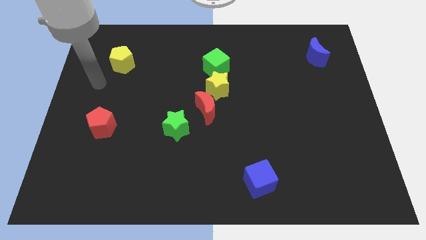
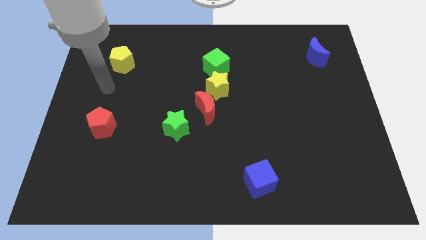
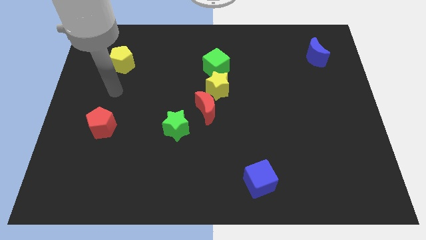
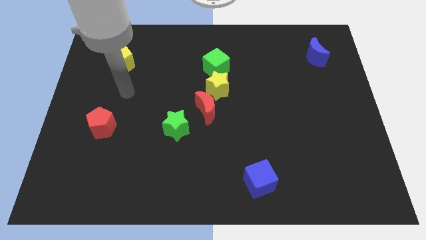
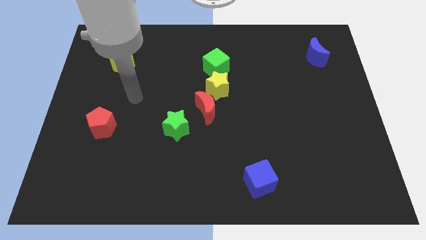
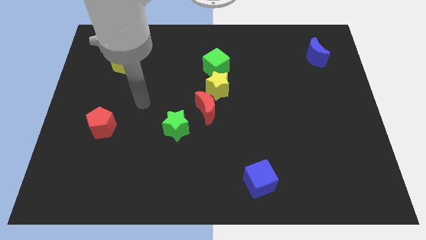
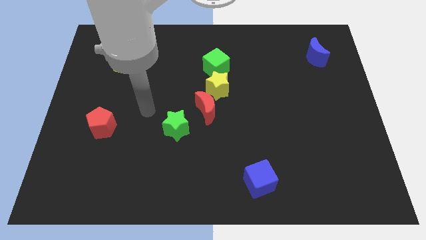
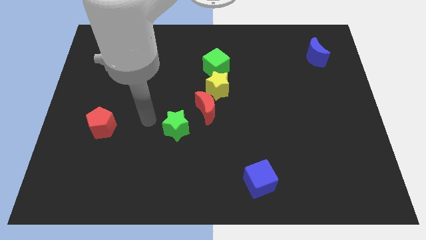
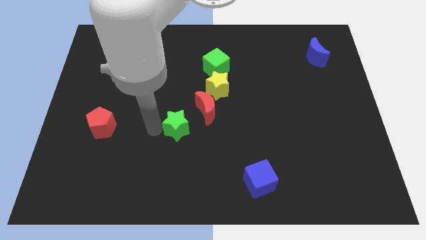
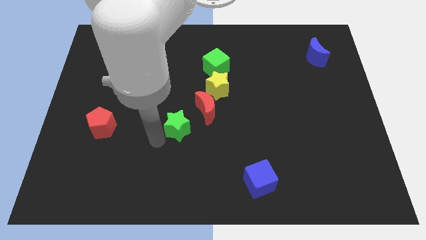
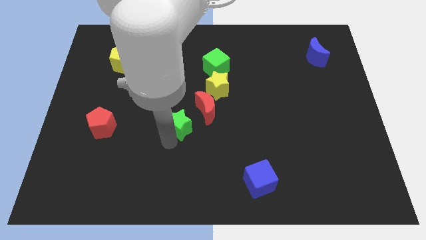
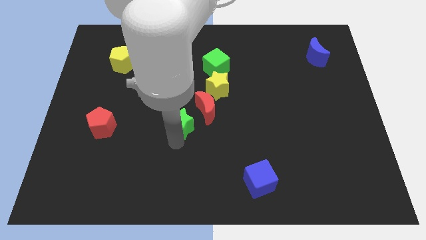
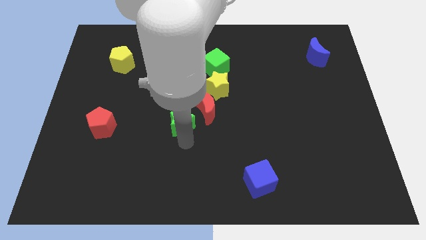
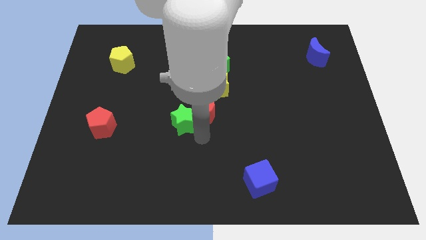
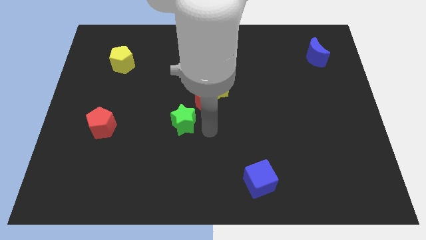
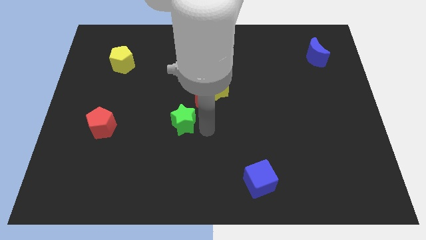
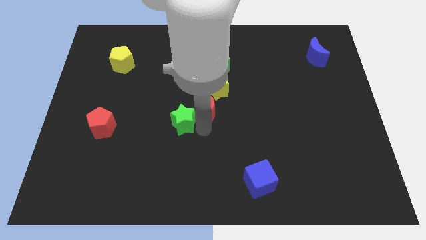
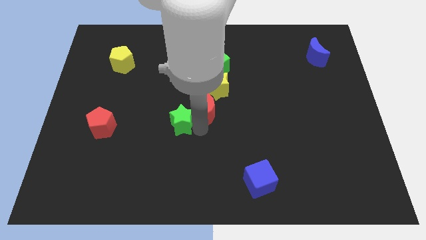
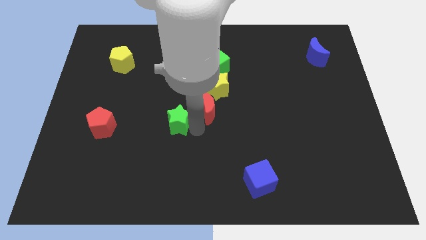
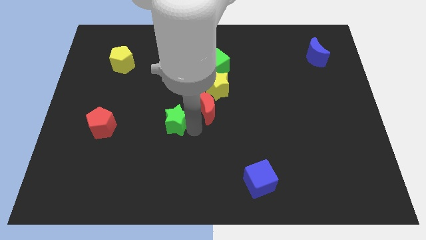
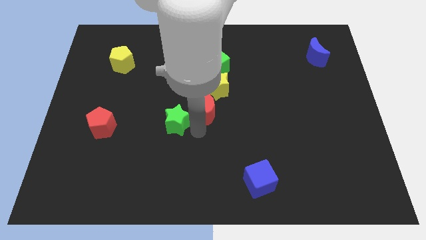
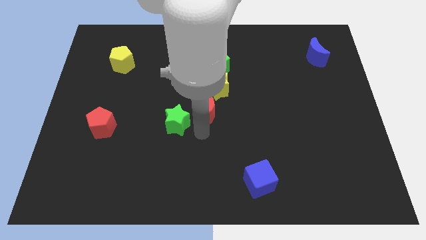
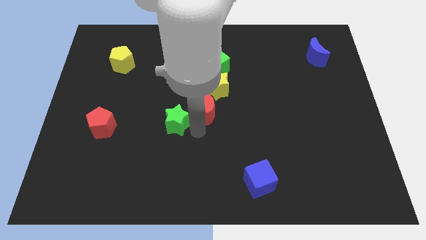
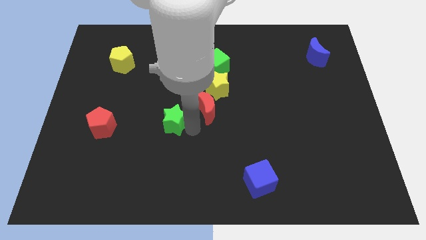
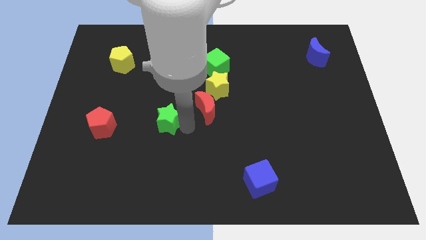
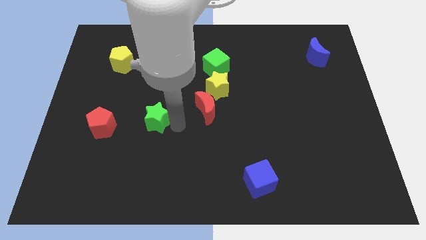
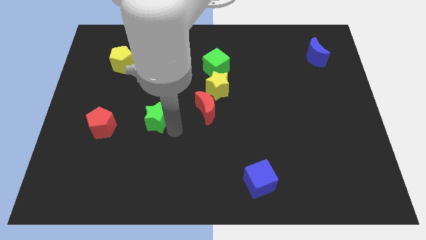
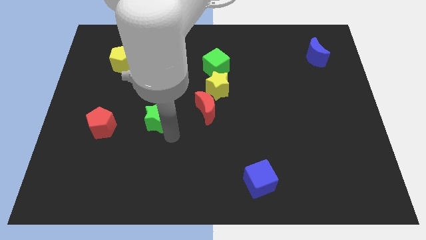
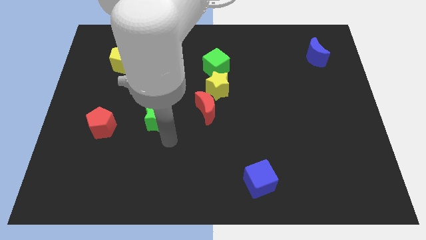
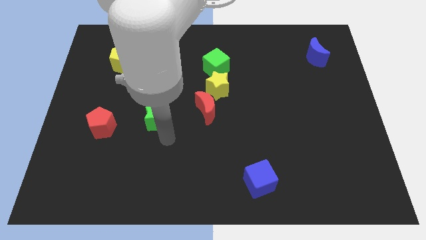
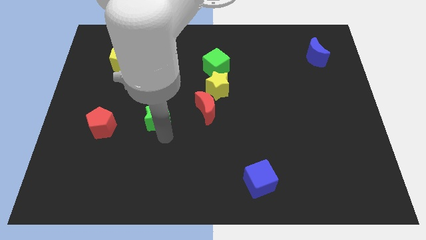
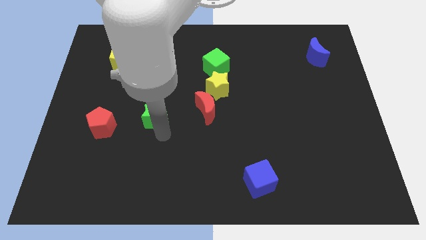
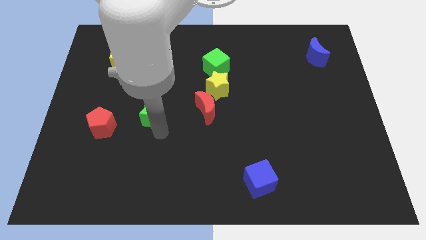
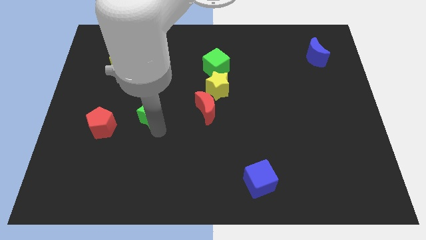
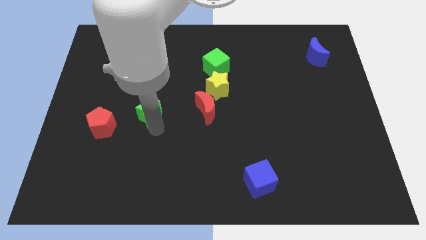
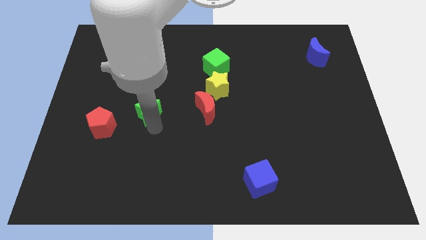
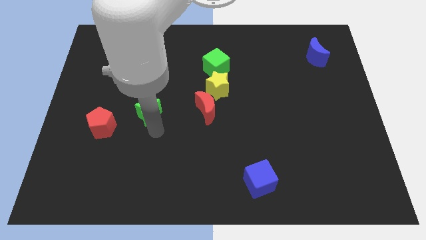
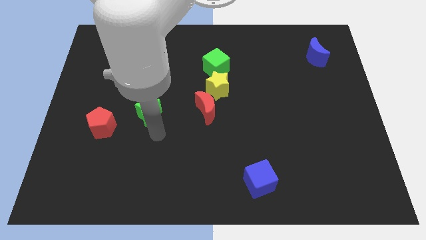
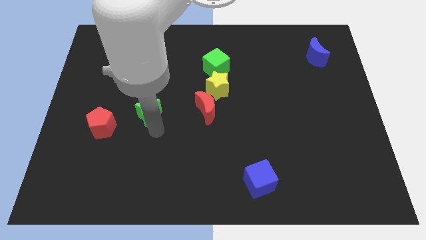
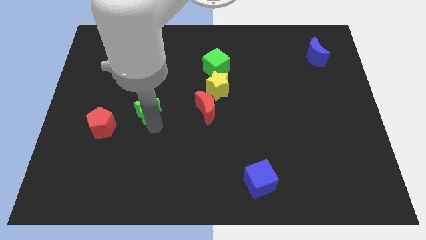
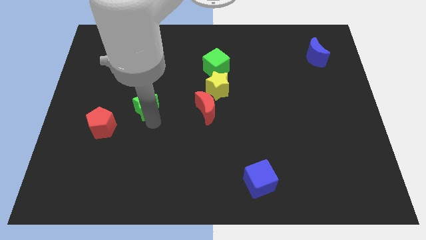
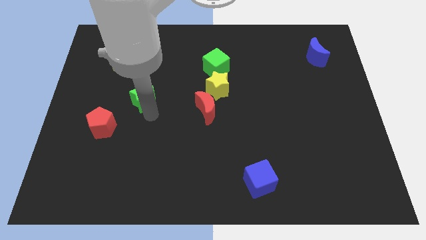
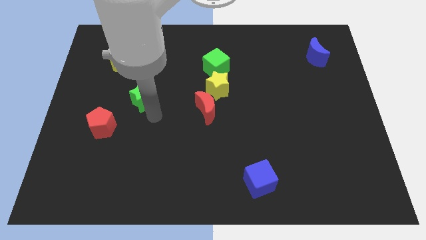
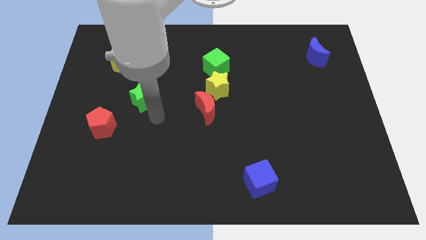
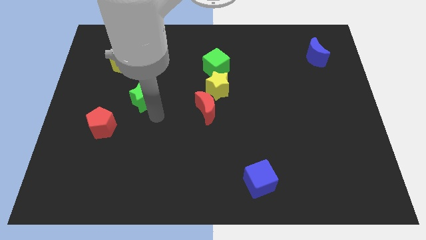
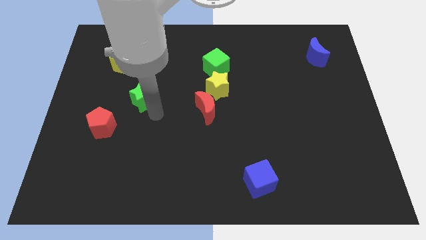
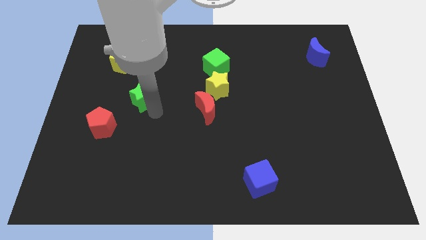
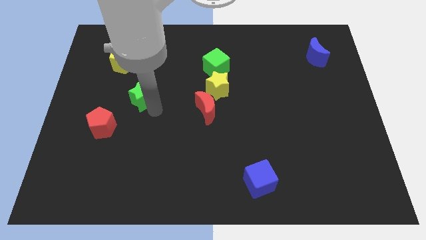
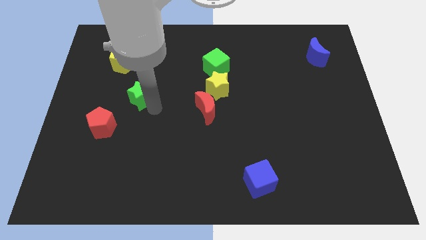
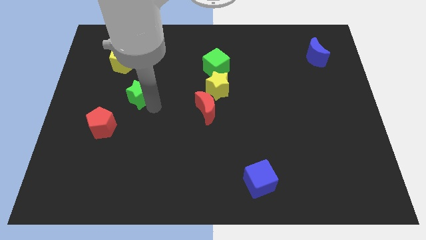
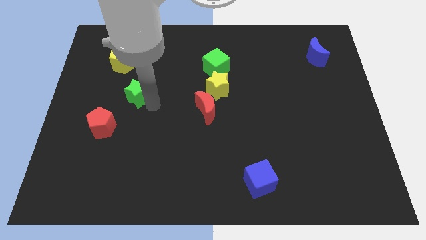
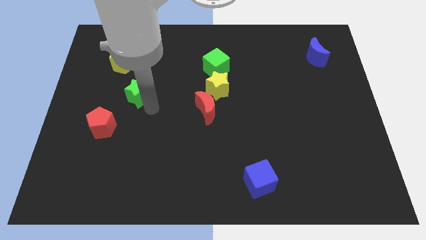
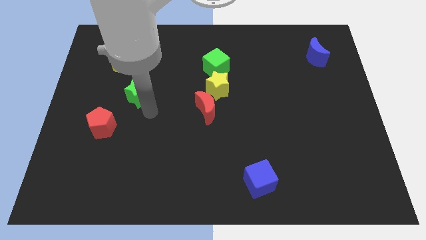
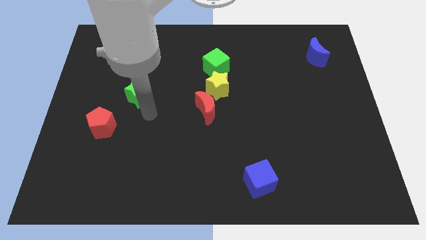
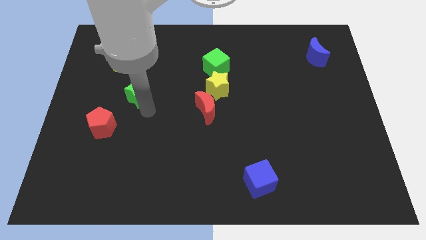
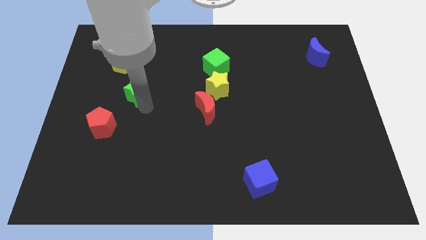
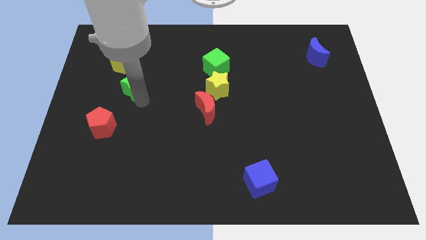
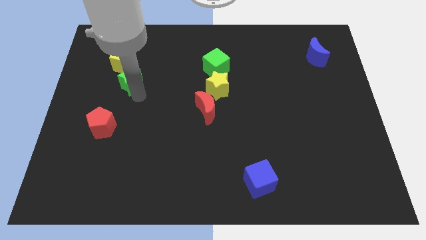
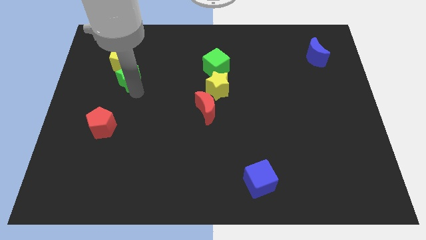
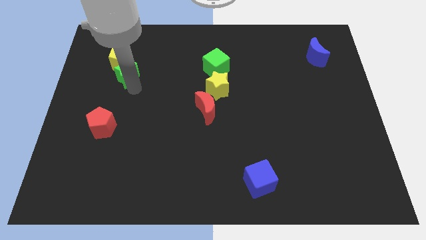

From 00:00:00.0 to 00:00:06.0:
move the green star next to the yellow pentagon
